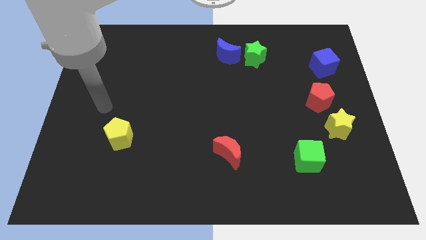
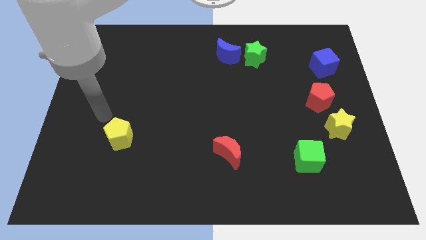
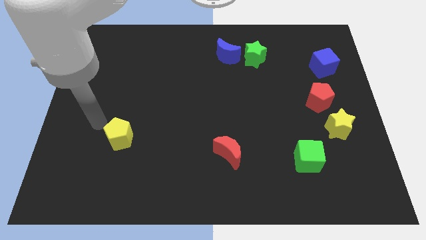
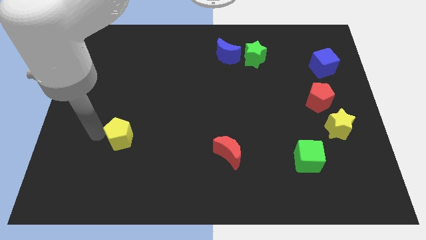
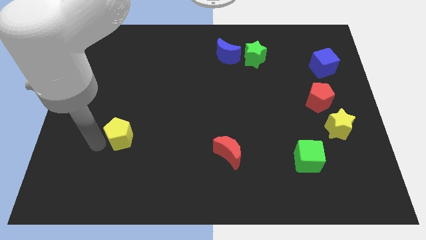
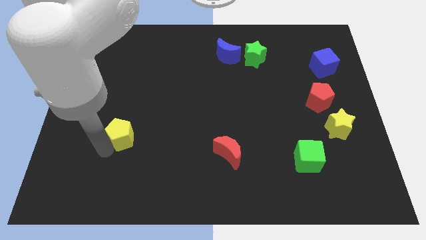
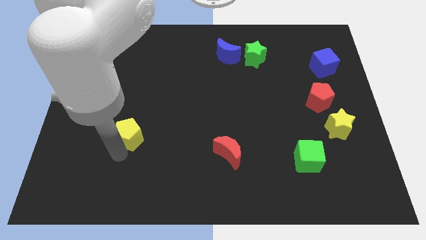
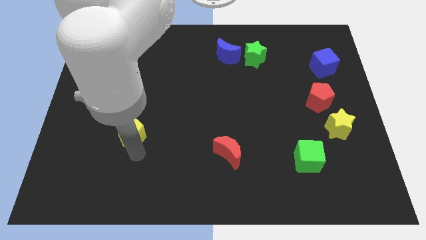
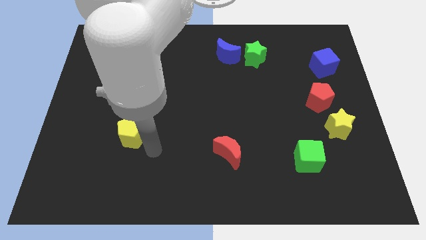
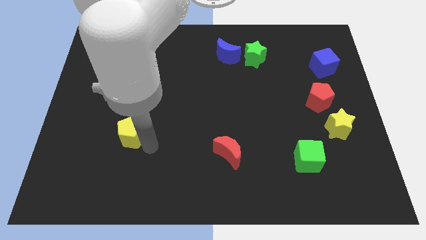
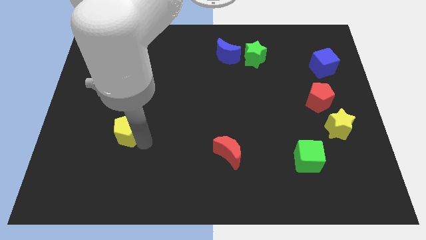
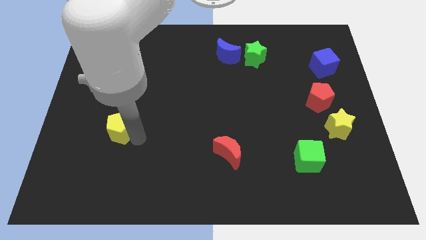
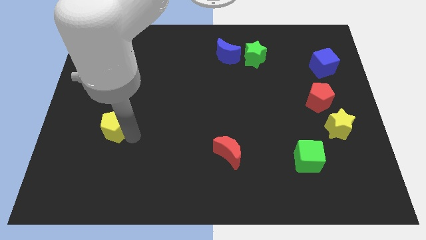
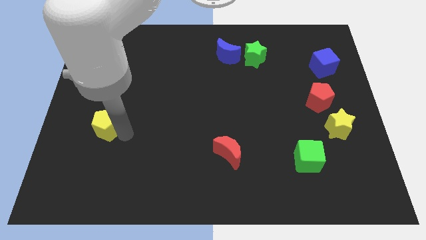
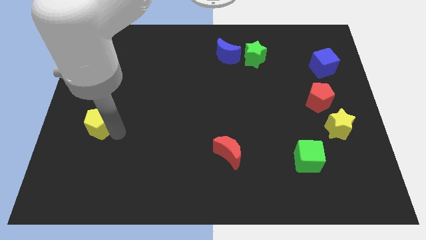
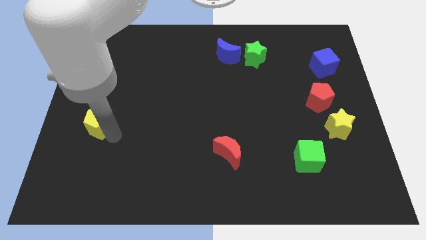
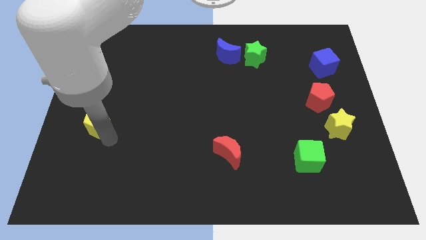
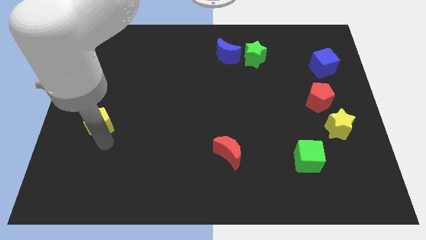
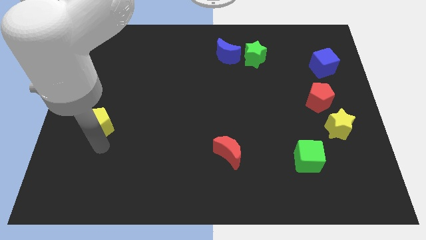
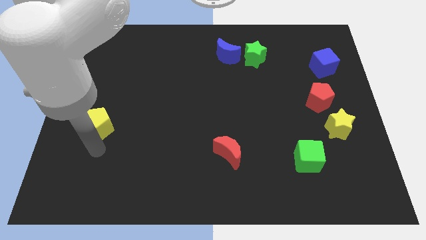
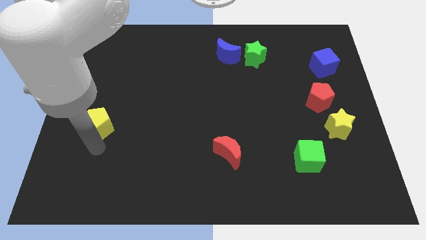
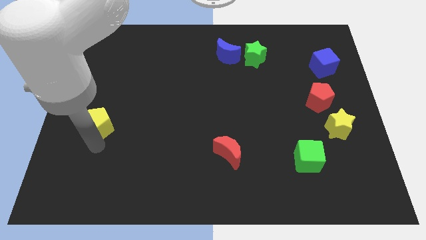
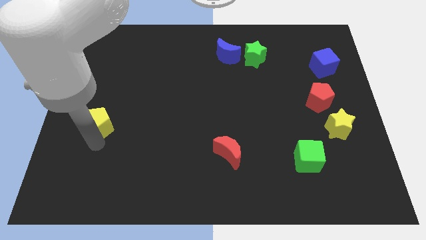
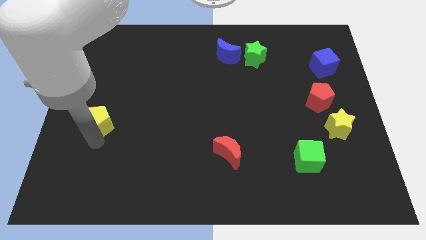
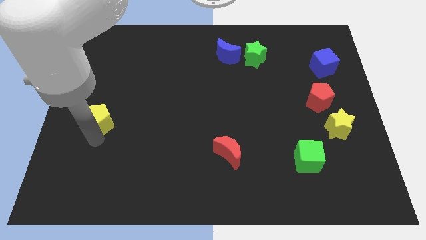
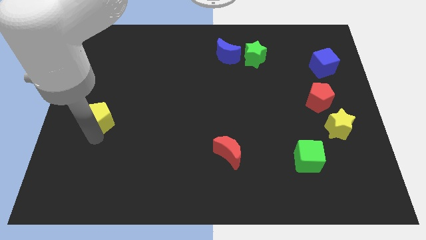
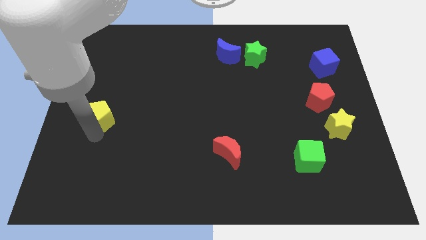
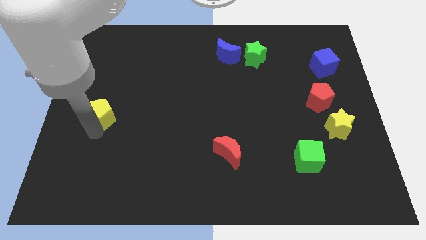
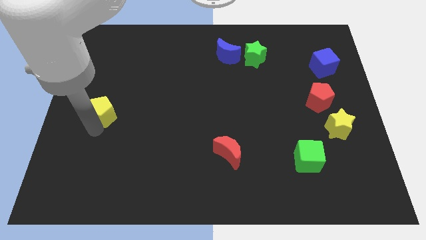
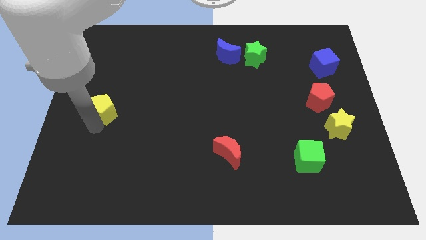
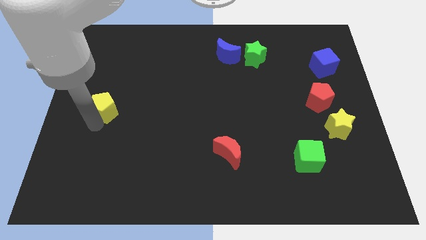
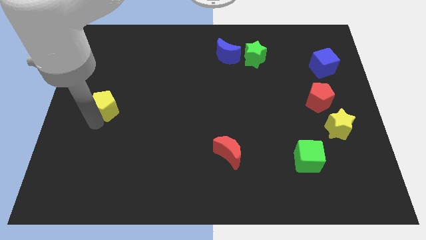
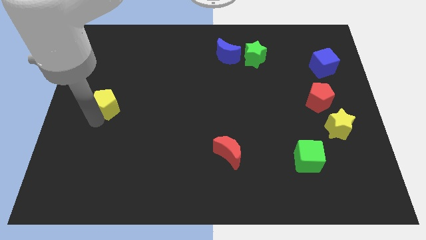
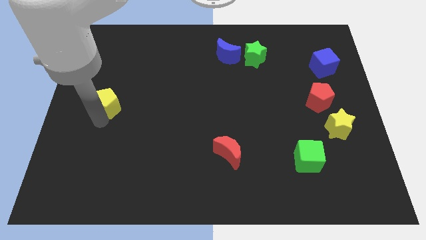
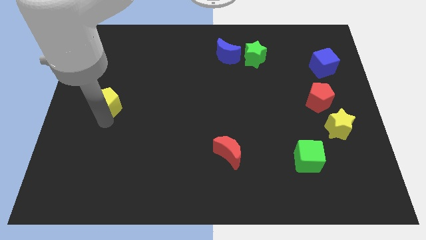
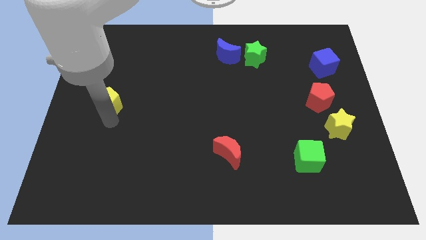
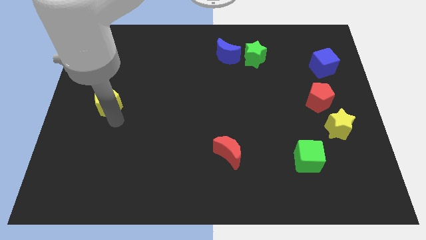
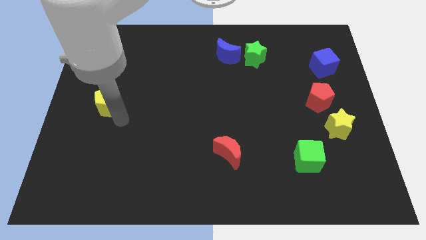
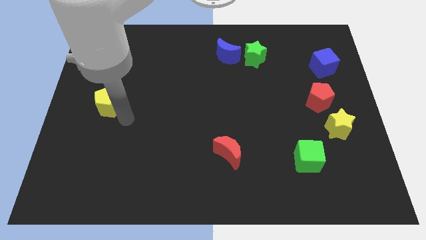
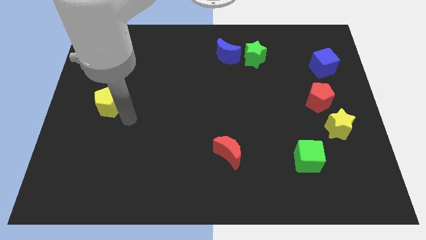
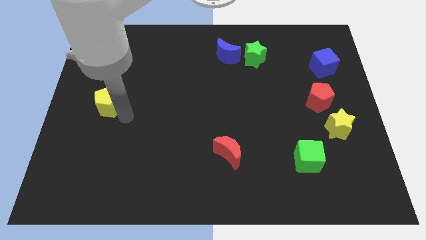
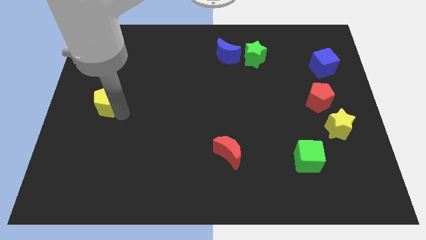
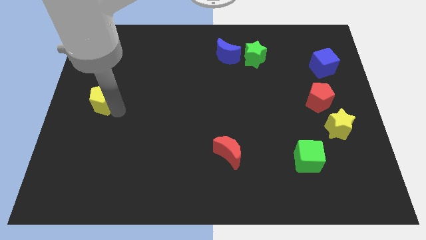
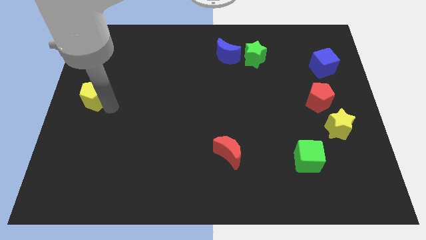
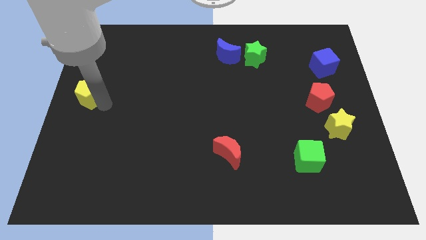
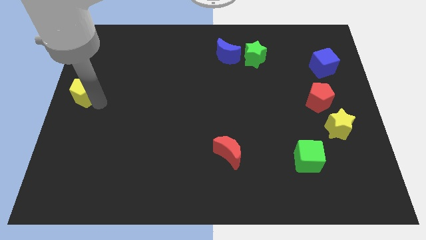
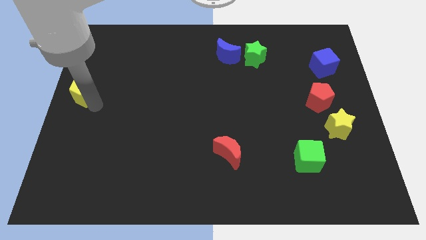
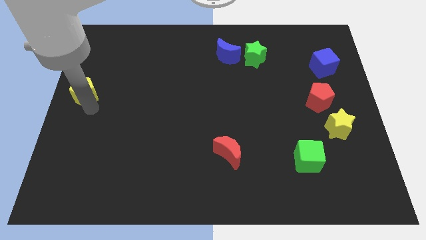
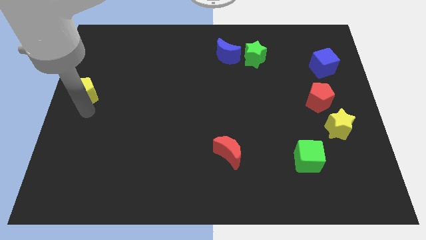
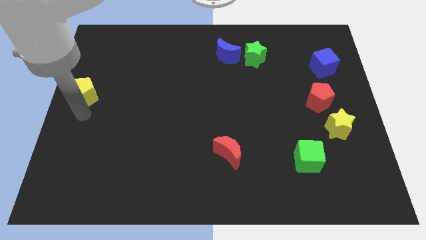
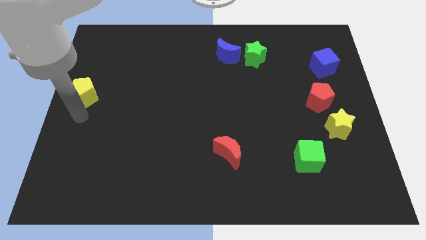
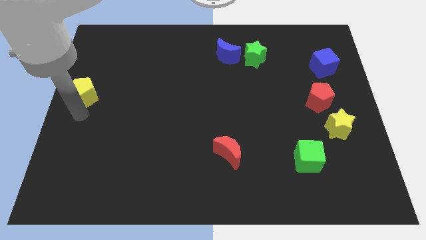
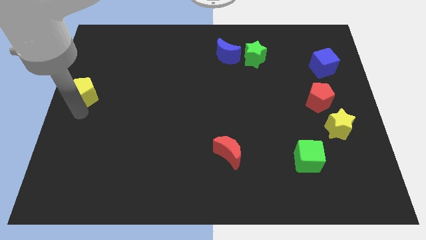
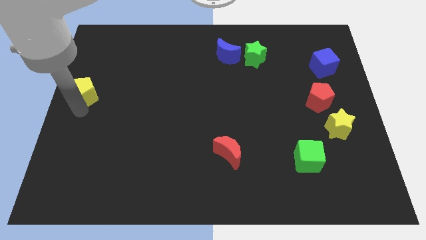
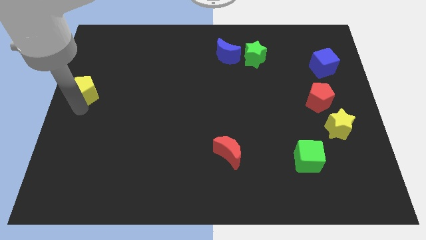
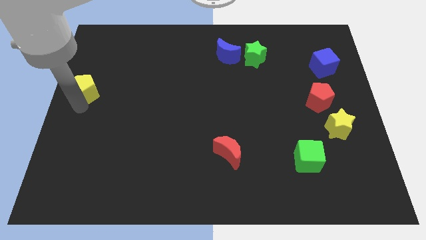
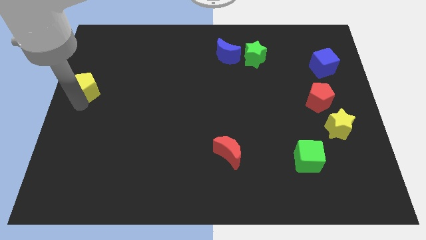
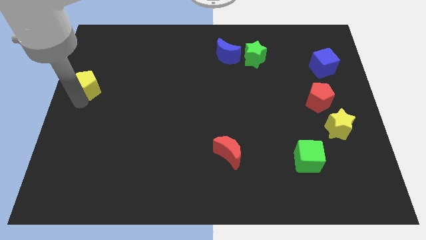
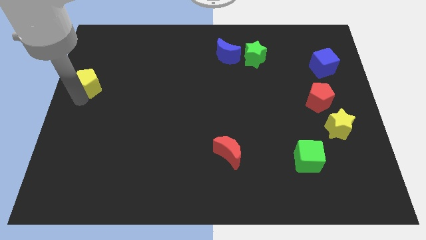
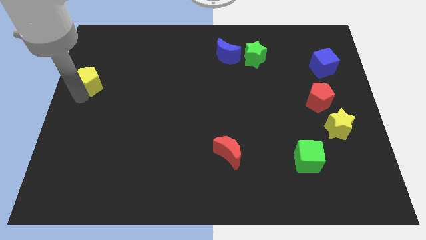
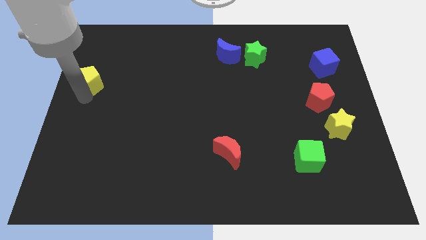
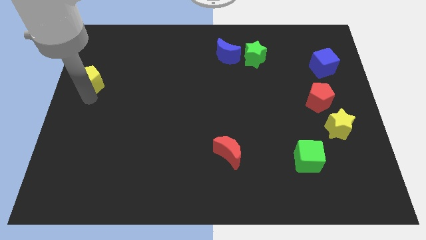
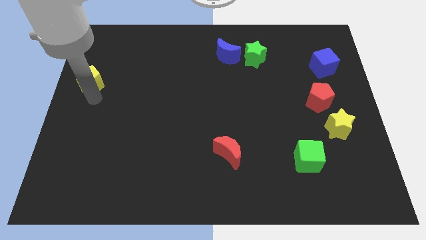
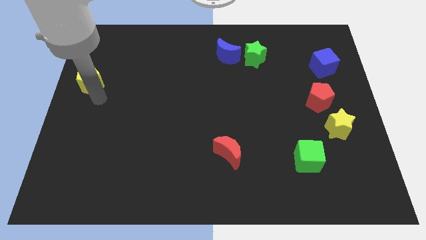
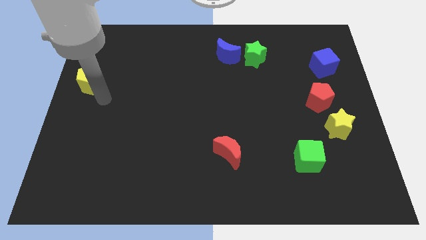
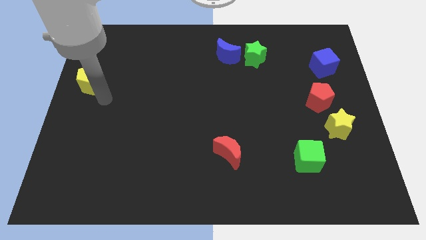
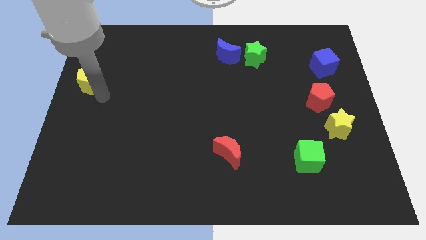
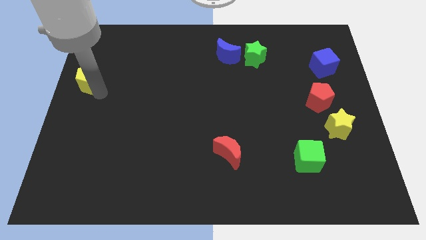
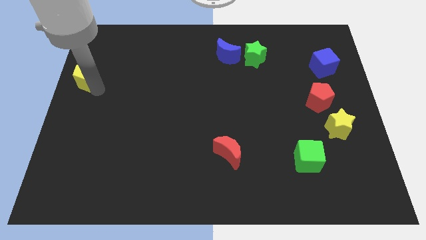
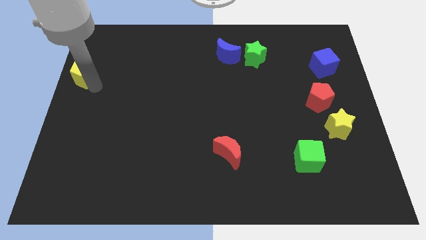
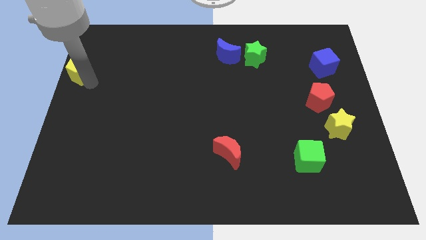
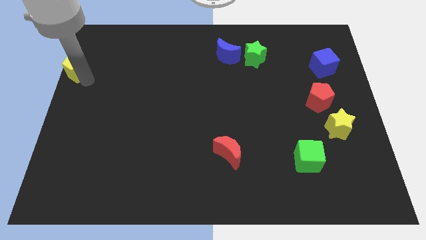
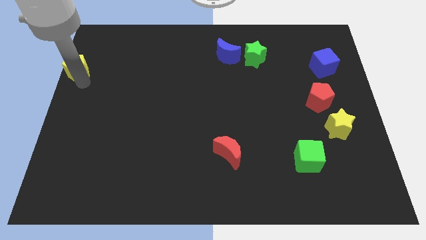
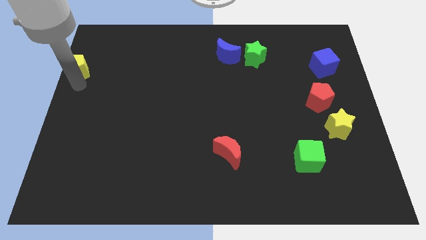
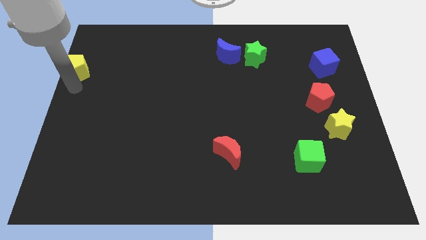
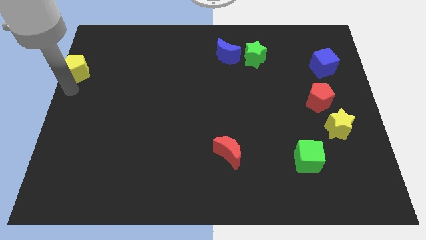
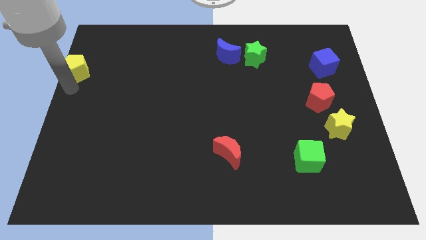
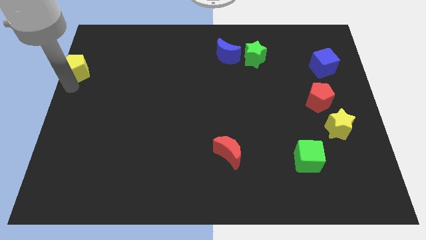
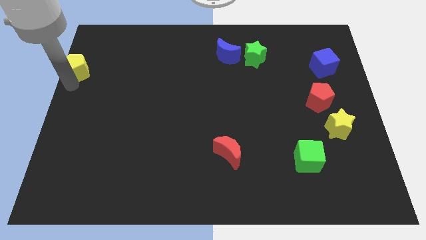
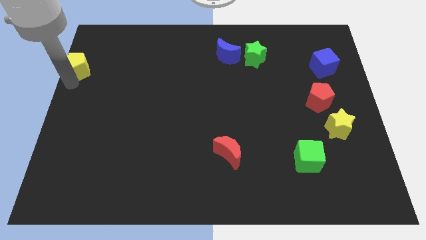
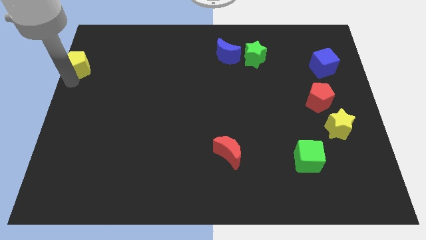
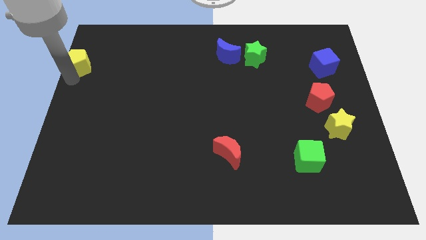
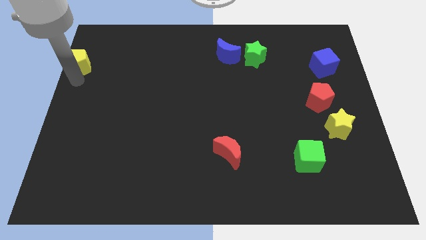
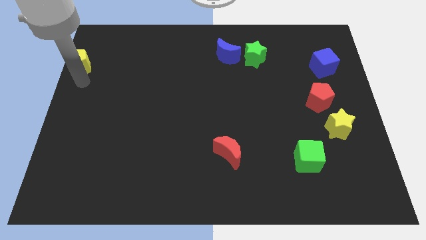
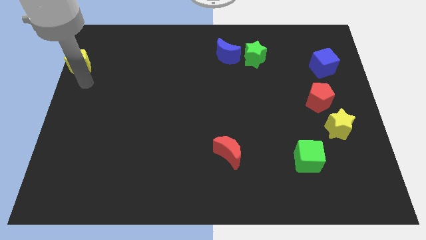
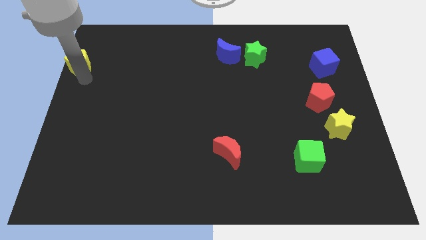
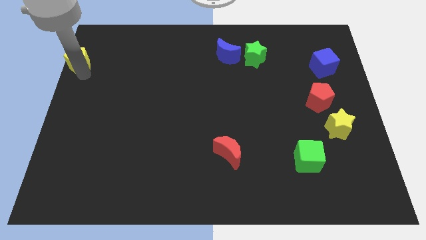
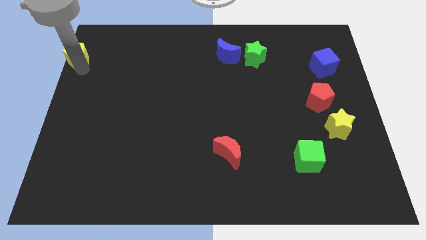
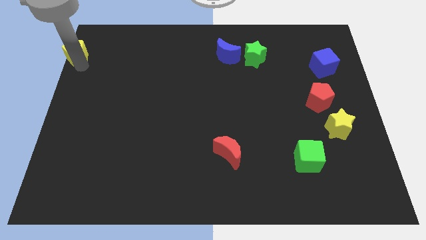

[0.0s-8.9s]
push the yellow pentagon to the top left of the board
